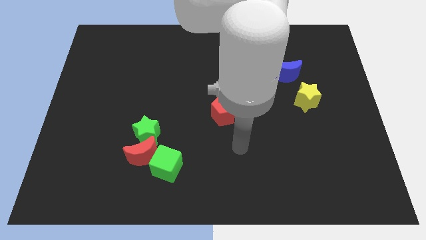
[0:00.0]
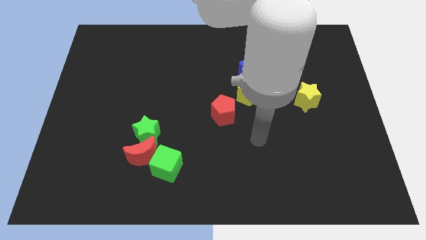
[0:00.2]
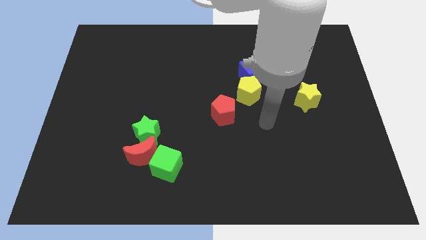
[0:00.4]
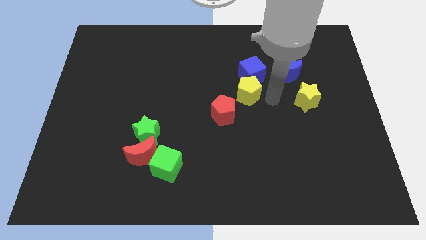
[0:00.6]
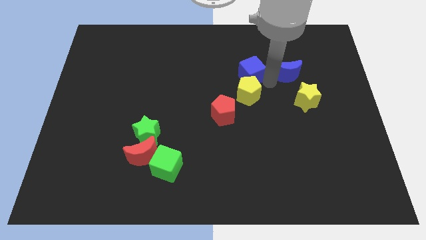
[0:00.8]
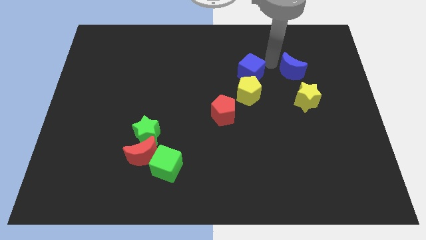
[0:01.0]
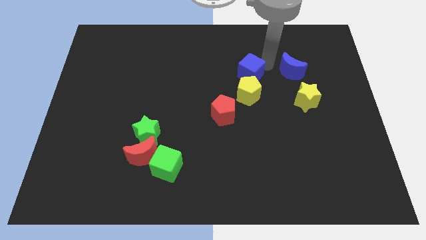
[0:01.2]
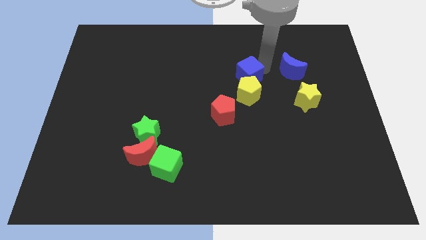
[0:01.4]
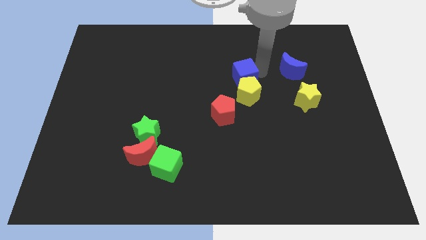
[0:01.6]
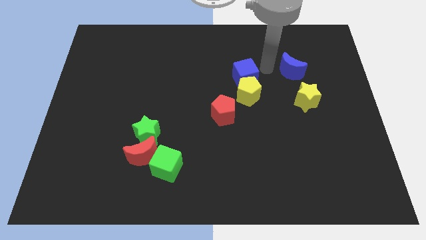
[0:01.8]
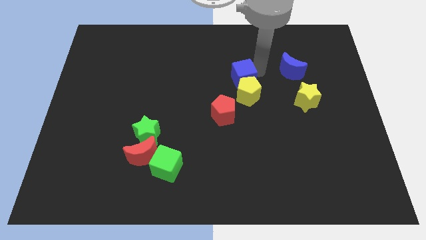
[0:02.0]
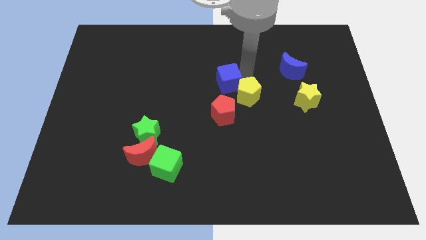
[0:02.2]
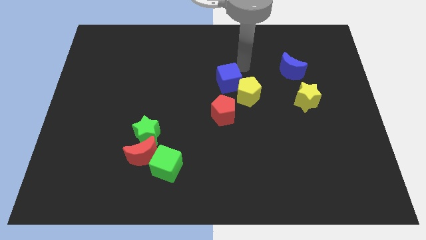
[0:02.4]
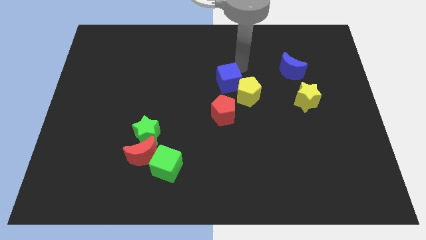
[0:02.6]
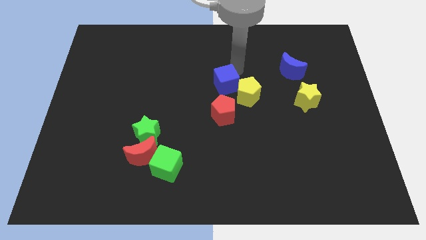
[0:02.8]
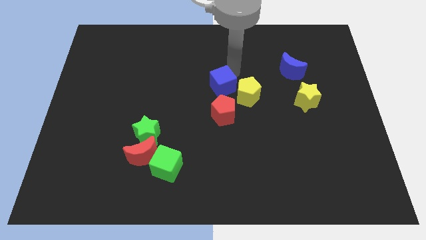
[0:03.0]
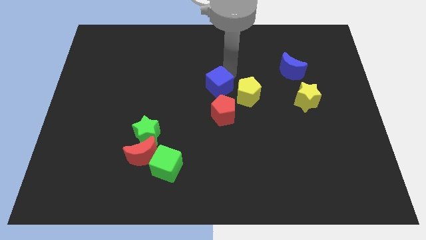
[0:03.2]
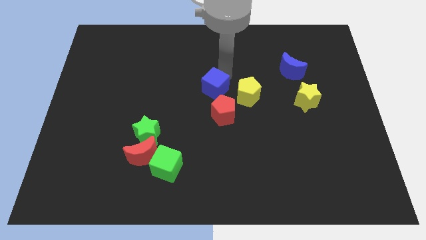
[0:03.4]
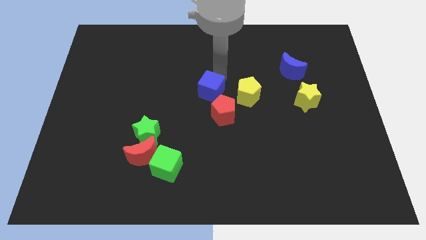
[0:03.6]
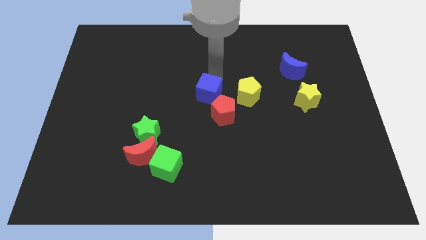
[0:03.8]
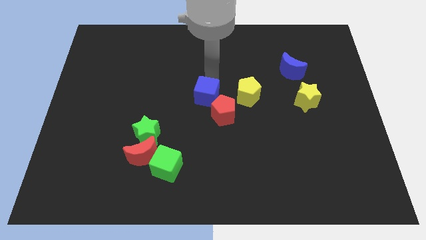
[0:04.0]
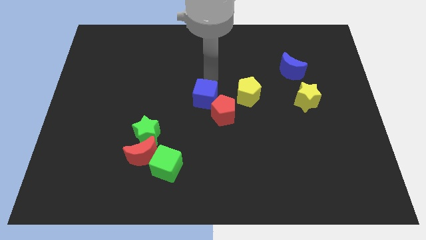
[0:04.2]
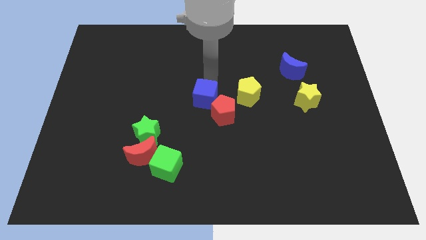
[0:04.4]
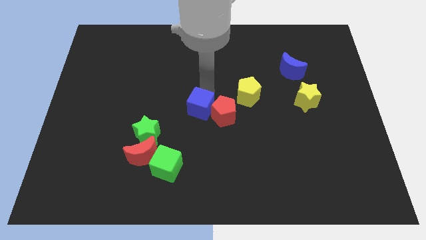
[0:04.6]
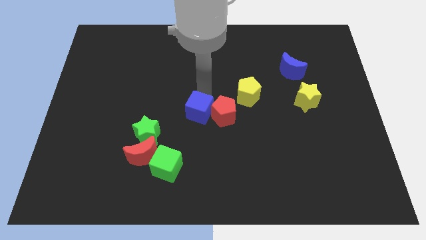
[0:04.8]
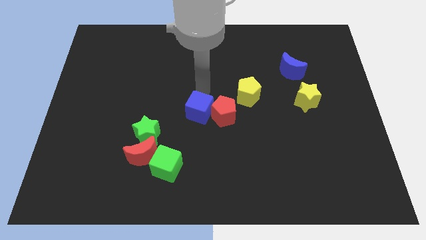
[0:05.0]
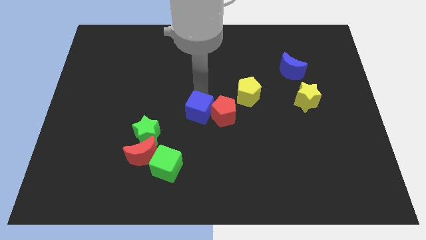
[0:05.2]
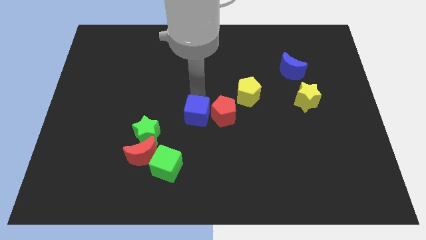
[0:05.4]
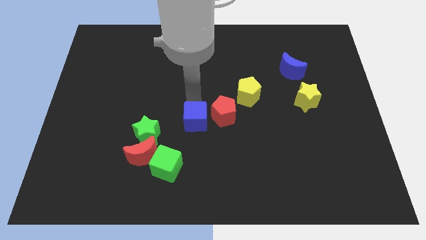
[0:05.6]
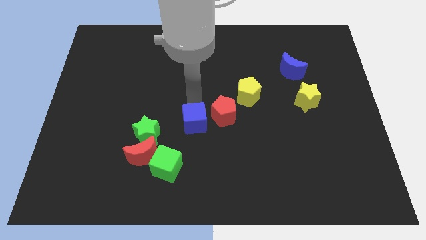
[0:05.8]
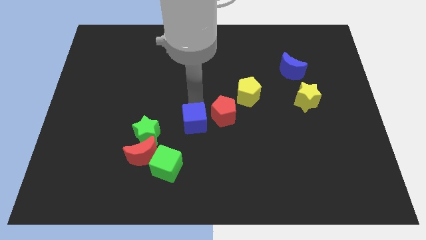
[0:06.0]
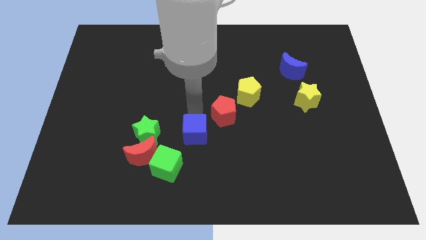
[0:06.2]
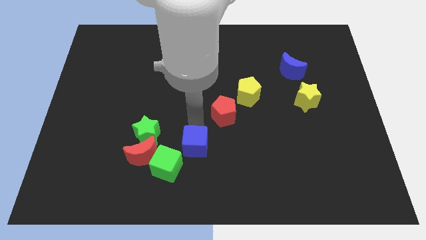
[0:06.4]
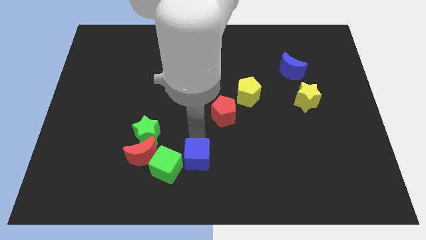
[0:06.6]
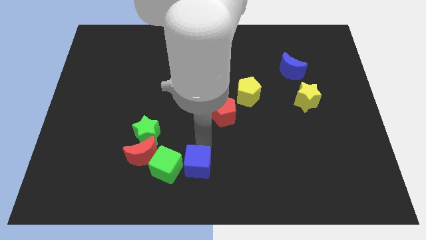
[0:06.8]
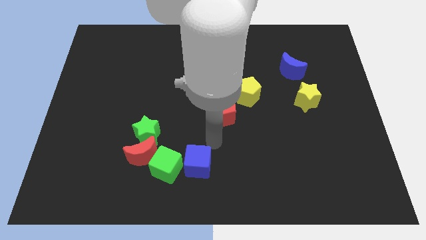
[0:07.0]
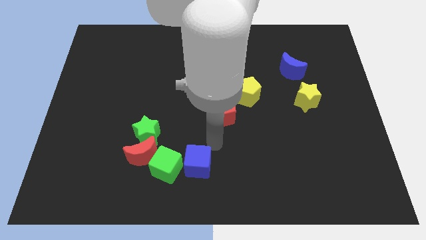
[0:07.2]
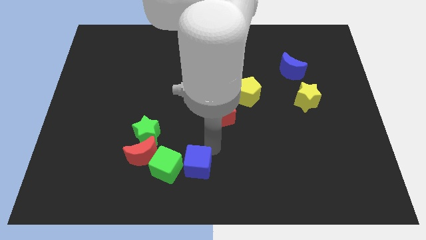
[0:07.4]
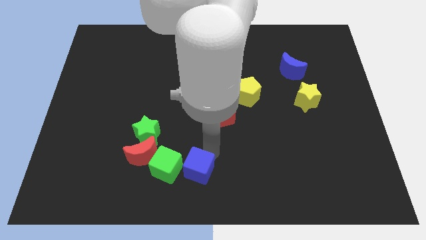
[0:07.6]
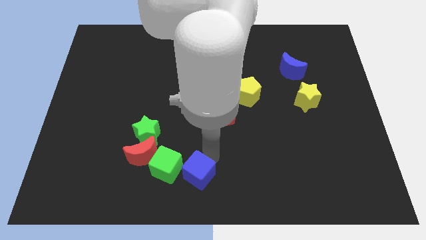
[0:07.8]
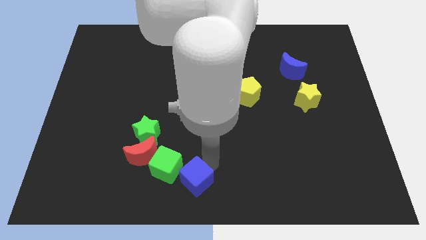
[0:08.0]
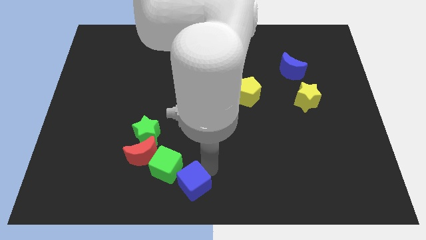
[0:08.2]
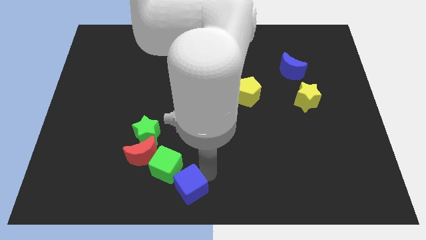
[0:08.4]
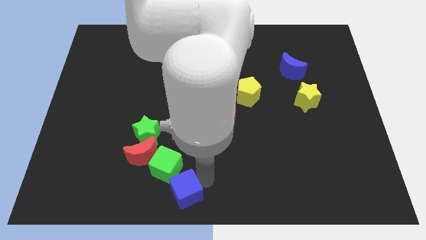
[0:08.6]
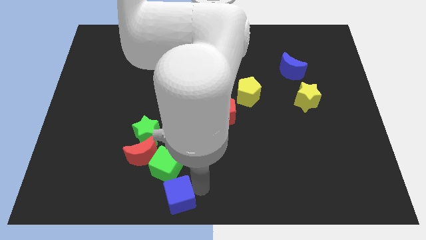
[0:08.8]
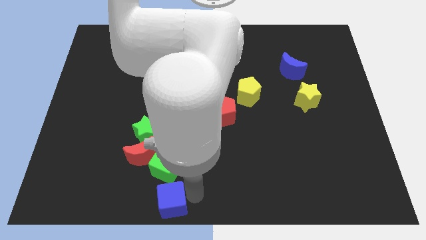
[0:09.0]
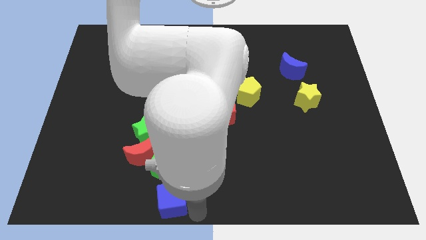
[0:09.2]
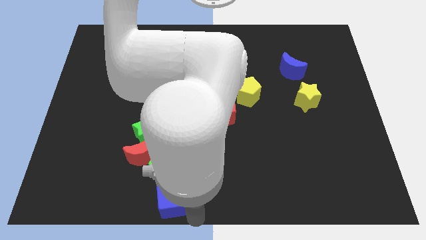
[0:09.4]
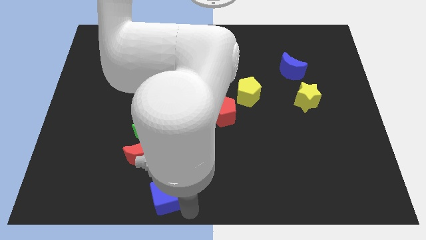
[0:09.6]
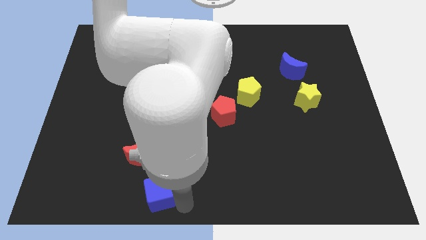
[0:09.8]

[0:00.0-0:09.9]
put the blue cube to the bottom side of the green star

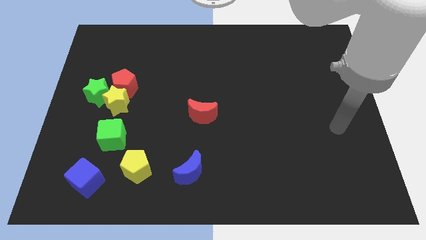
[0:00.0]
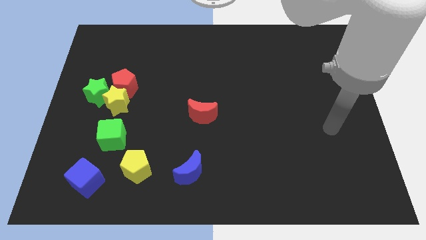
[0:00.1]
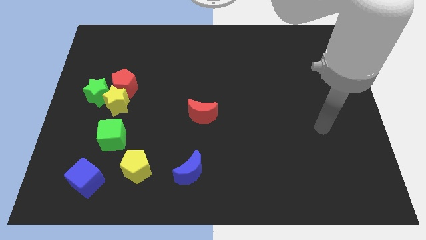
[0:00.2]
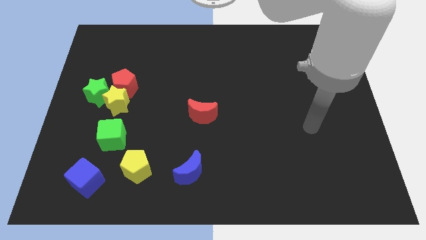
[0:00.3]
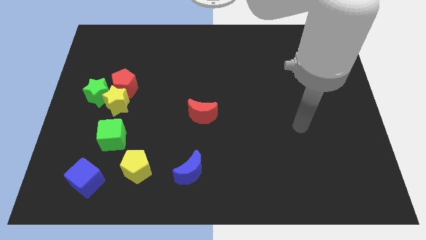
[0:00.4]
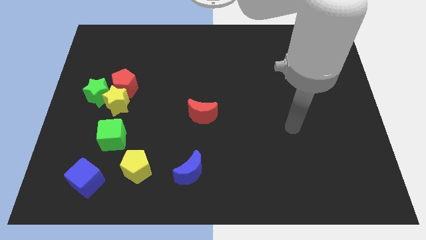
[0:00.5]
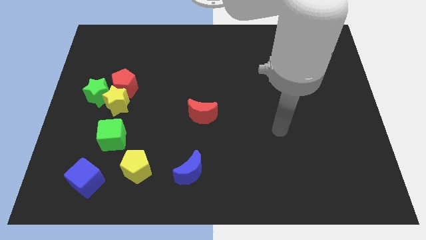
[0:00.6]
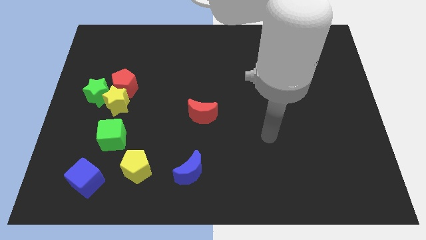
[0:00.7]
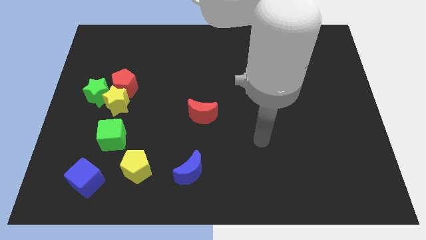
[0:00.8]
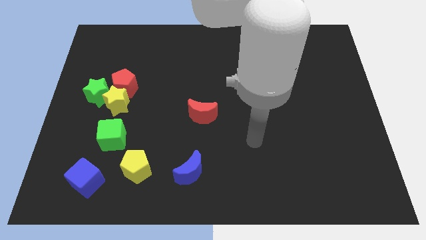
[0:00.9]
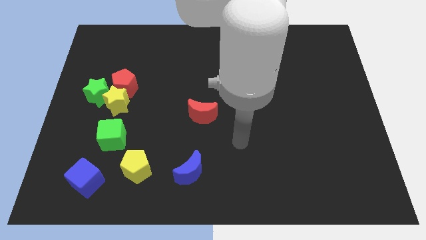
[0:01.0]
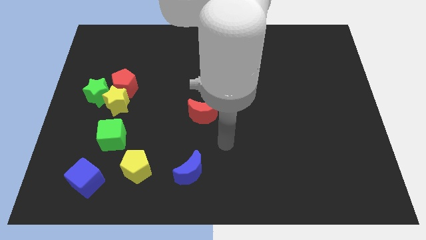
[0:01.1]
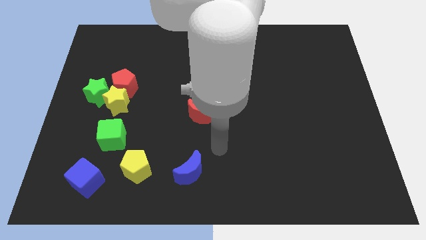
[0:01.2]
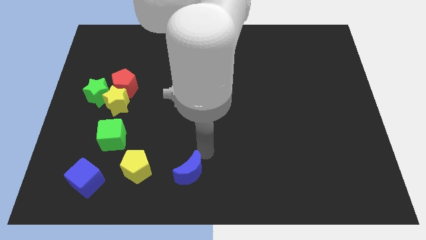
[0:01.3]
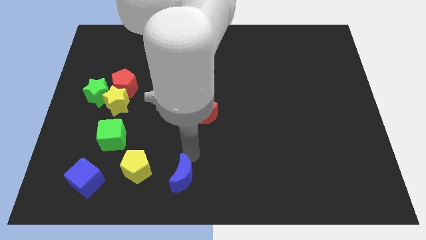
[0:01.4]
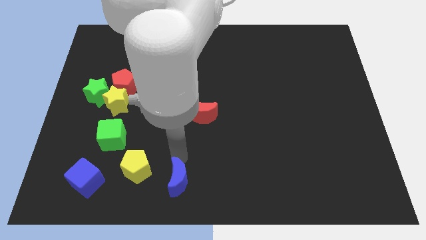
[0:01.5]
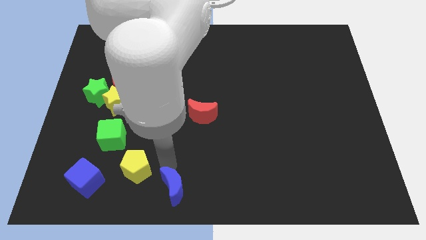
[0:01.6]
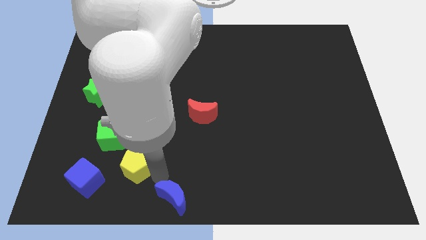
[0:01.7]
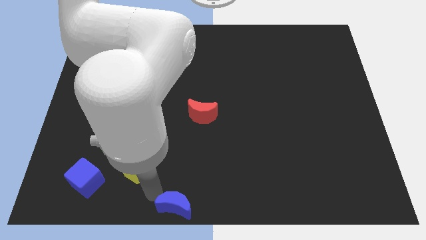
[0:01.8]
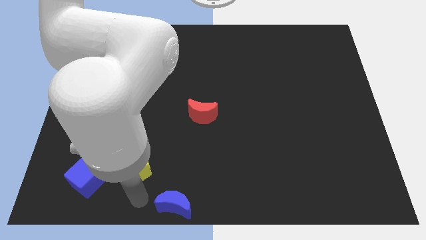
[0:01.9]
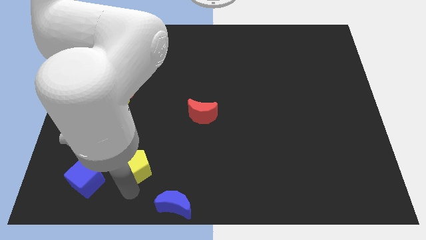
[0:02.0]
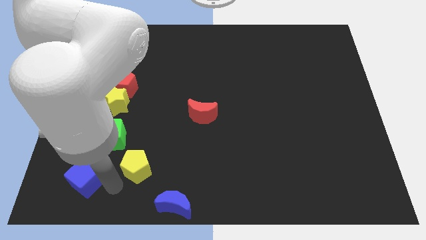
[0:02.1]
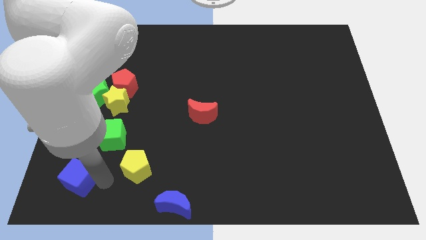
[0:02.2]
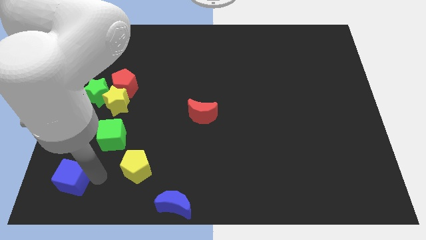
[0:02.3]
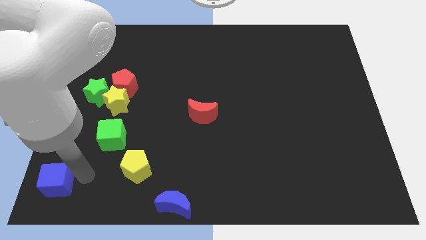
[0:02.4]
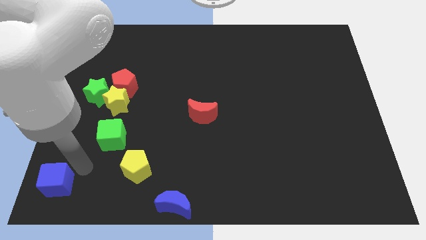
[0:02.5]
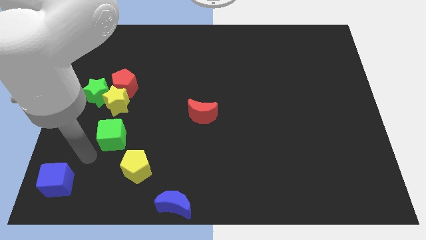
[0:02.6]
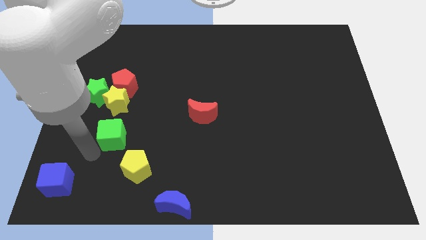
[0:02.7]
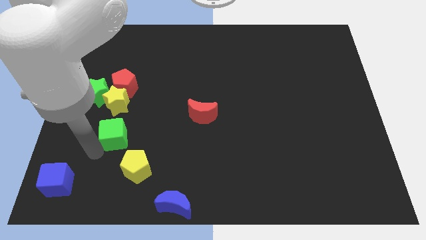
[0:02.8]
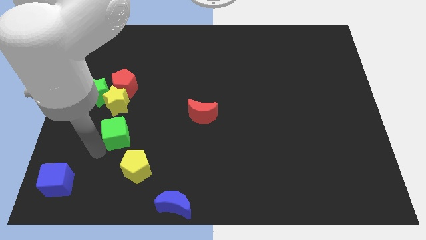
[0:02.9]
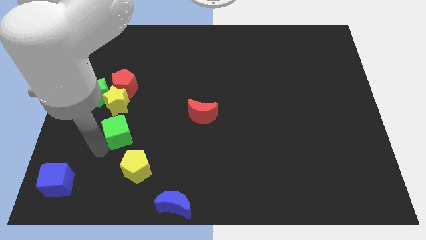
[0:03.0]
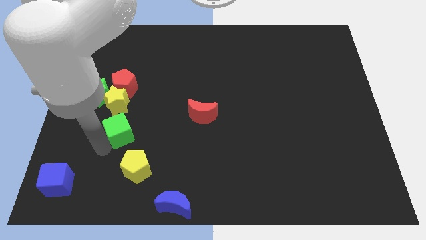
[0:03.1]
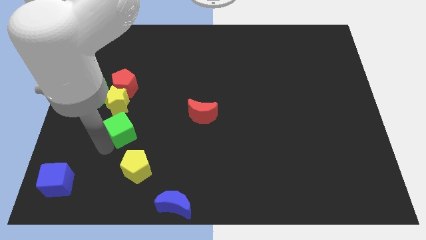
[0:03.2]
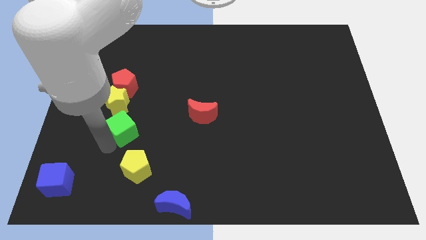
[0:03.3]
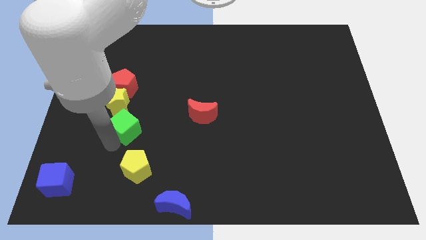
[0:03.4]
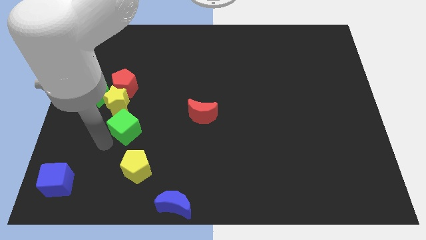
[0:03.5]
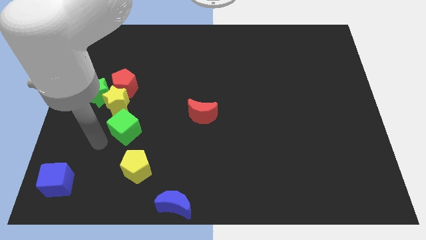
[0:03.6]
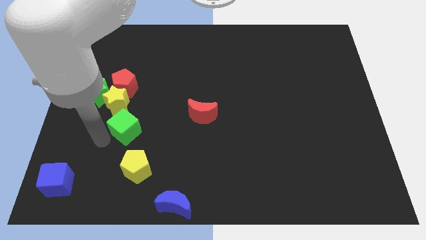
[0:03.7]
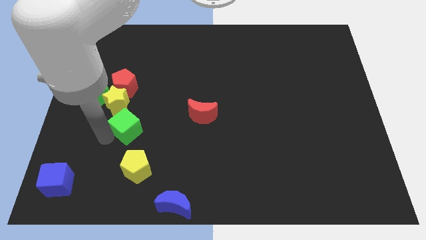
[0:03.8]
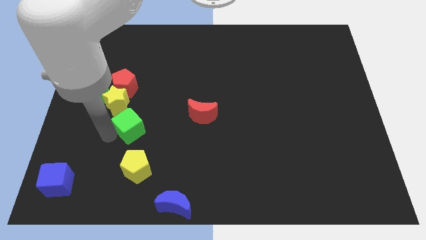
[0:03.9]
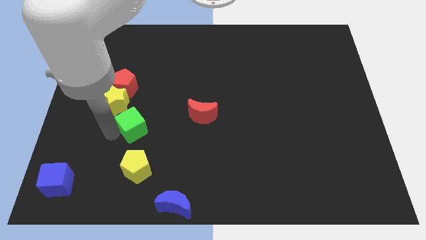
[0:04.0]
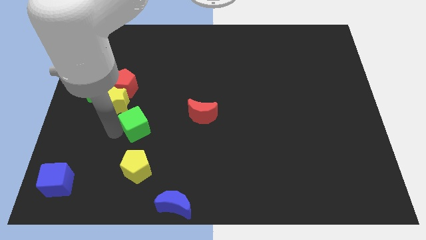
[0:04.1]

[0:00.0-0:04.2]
move the green cube just left of the red moon
